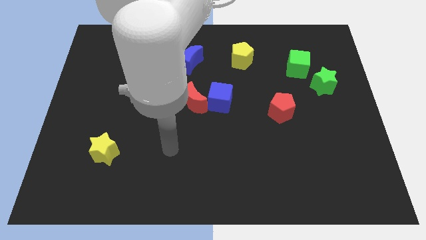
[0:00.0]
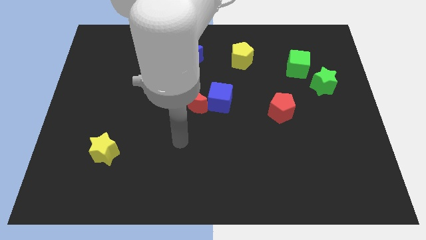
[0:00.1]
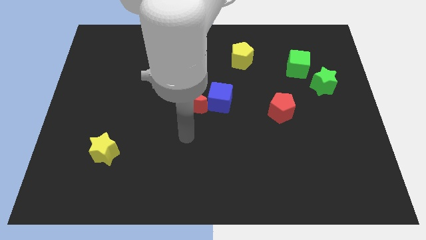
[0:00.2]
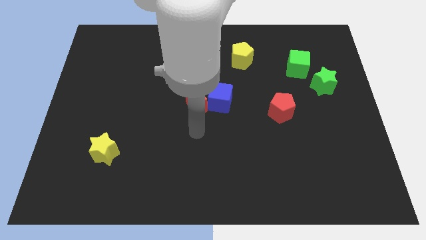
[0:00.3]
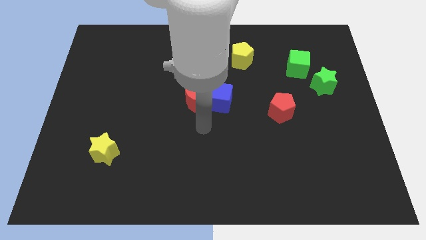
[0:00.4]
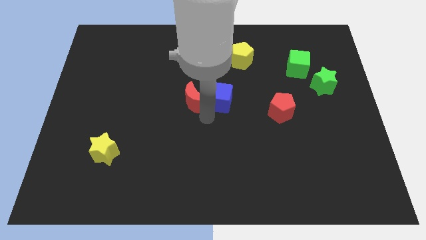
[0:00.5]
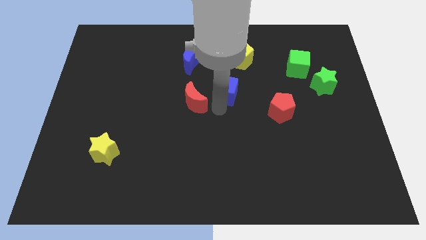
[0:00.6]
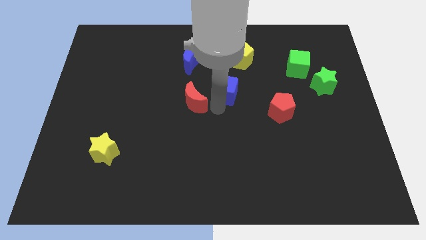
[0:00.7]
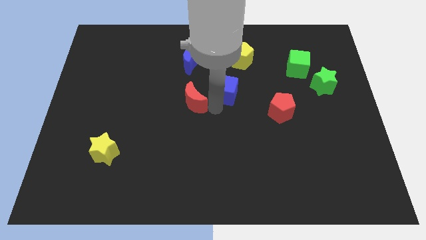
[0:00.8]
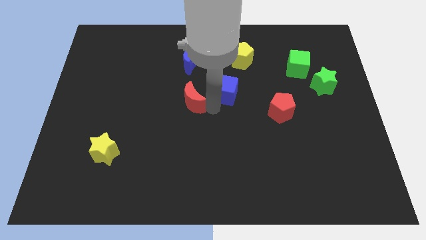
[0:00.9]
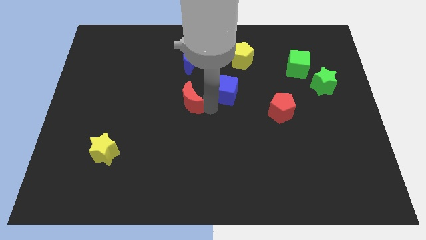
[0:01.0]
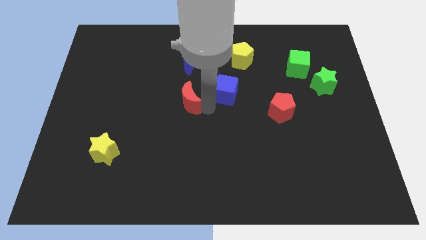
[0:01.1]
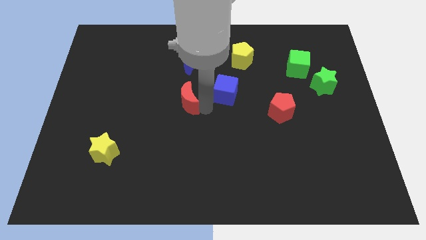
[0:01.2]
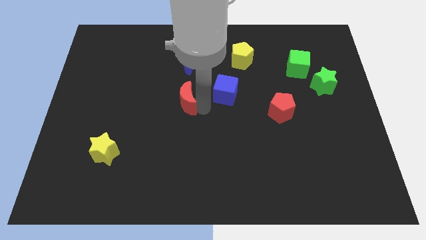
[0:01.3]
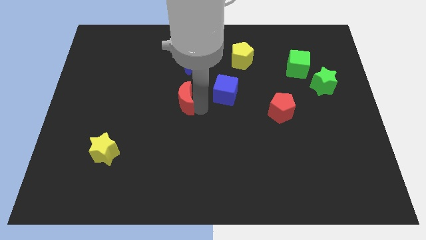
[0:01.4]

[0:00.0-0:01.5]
separate the red moon from the blue cube

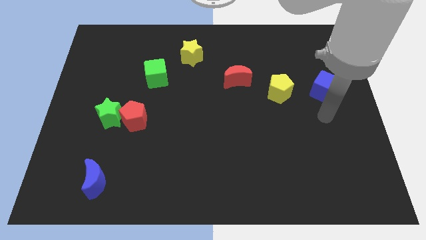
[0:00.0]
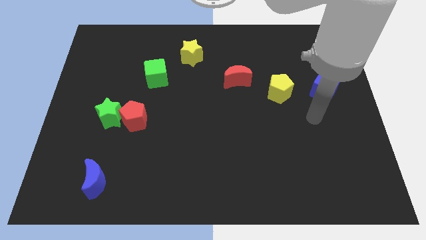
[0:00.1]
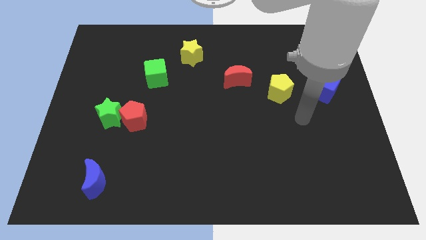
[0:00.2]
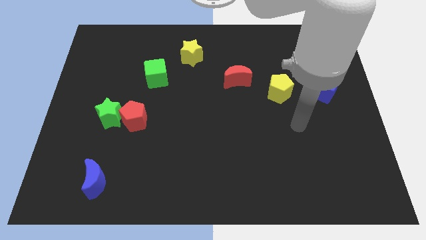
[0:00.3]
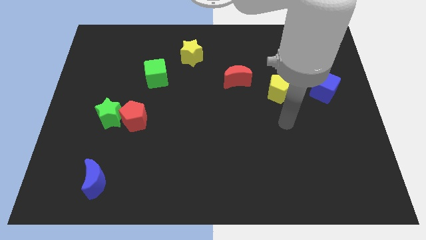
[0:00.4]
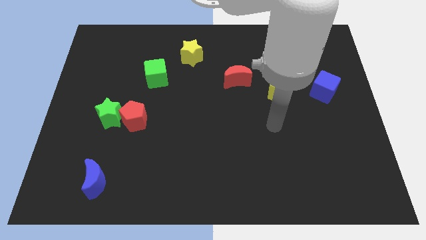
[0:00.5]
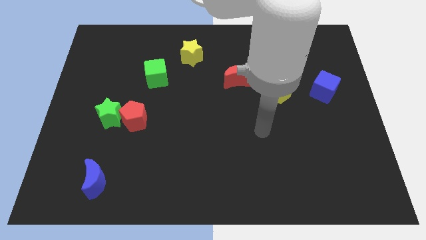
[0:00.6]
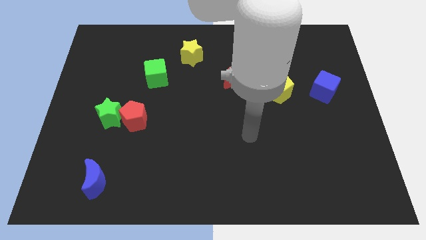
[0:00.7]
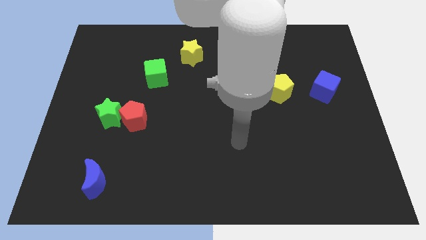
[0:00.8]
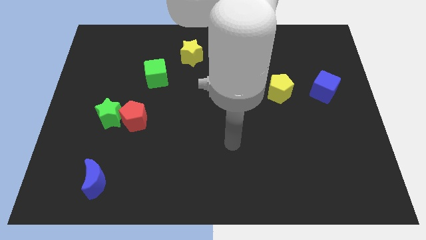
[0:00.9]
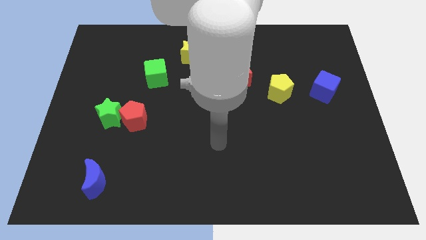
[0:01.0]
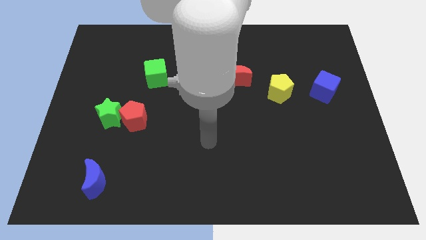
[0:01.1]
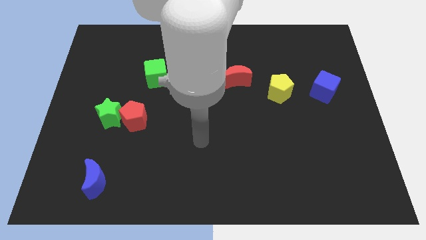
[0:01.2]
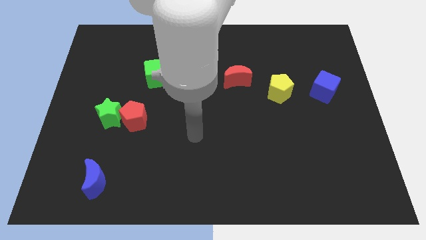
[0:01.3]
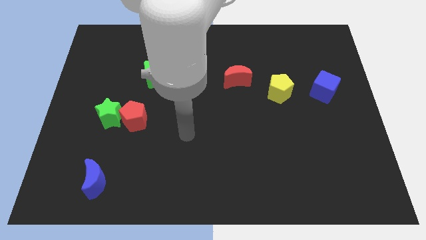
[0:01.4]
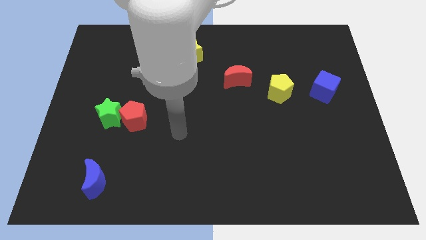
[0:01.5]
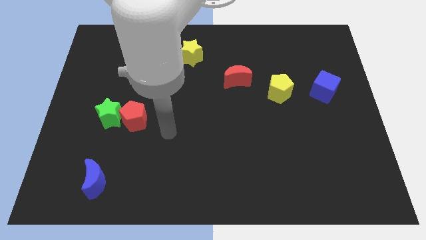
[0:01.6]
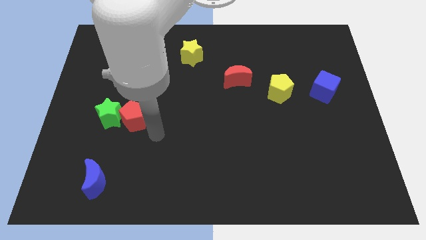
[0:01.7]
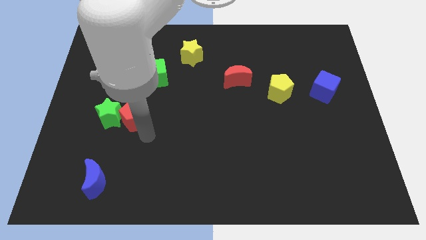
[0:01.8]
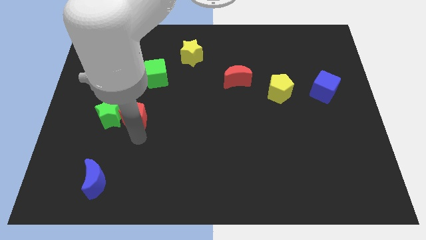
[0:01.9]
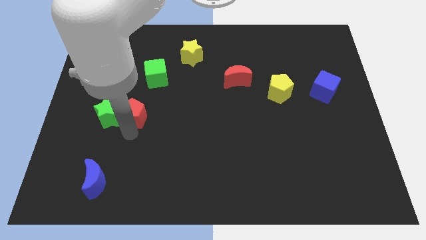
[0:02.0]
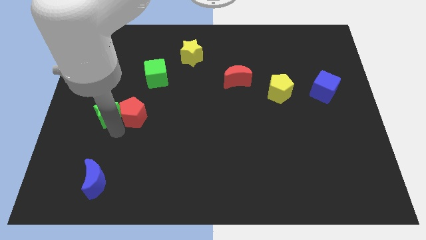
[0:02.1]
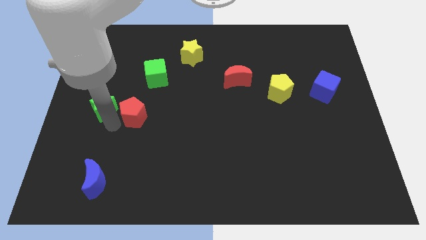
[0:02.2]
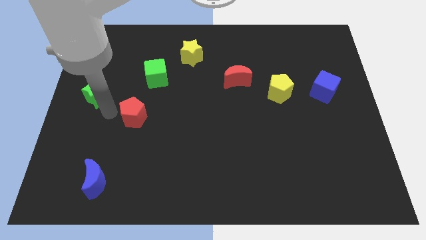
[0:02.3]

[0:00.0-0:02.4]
move the red pentagon away from the green star

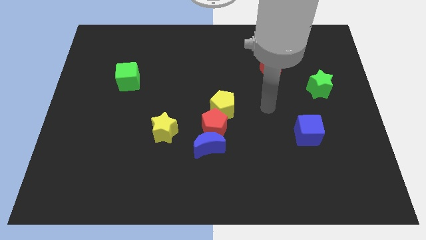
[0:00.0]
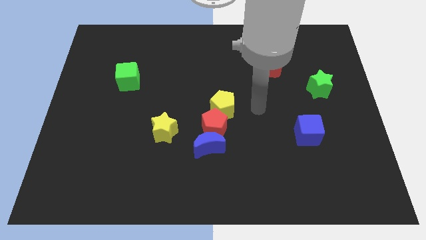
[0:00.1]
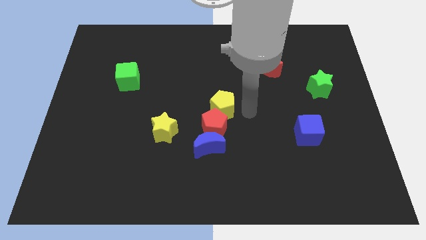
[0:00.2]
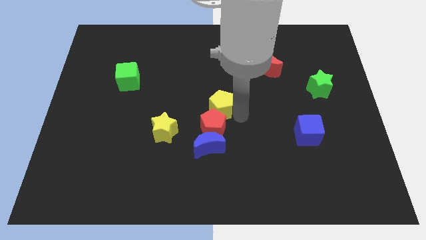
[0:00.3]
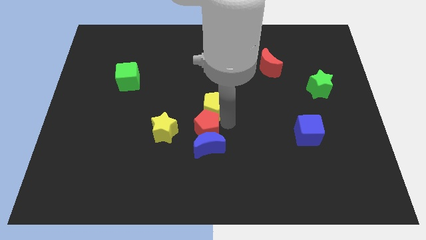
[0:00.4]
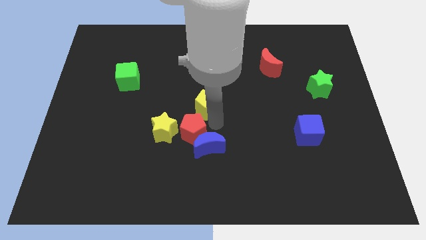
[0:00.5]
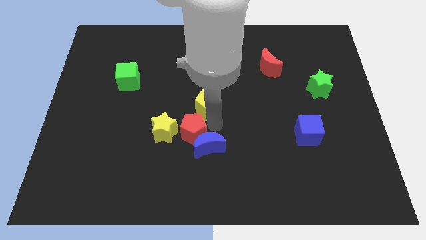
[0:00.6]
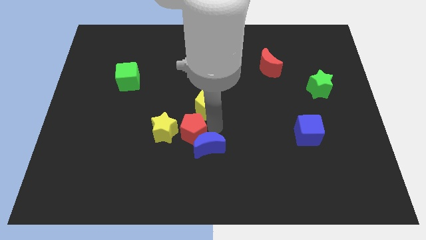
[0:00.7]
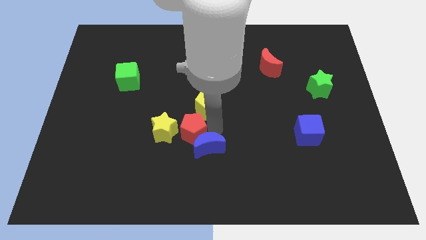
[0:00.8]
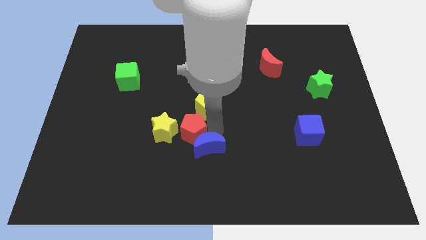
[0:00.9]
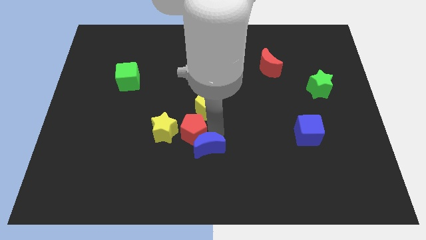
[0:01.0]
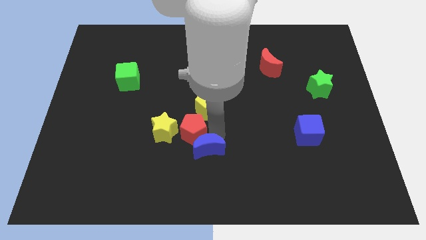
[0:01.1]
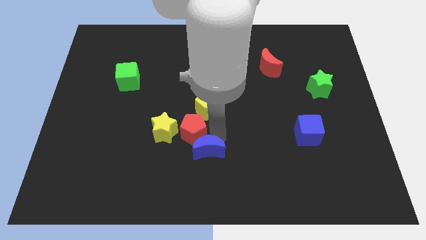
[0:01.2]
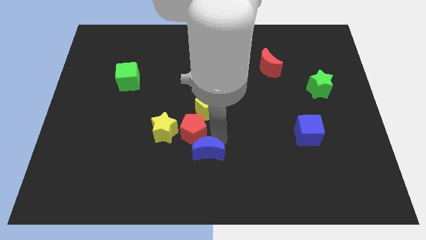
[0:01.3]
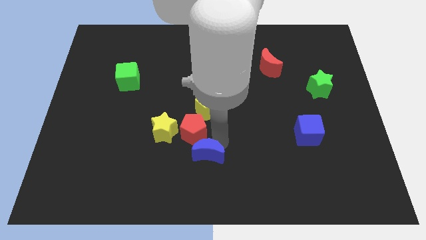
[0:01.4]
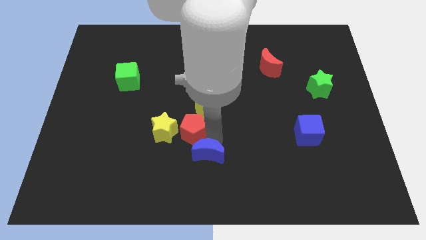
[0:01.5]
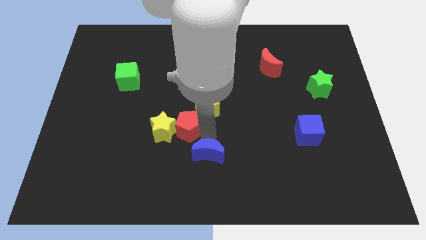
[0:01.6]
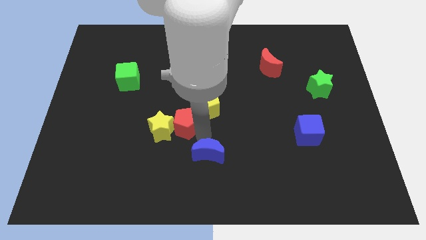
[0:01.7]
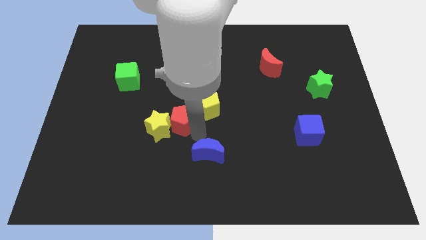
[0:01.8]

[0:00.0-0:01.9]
separate the blue moon from the red pentagon

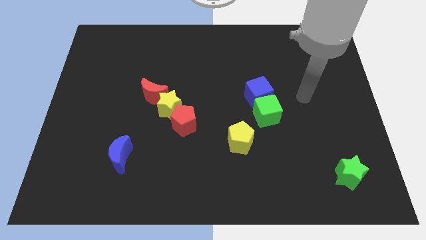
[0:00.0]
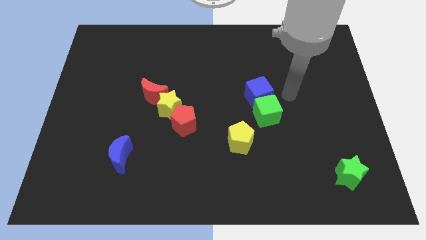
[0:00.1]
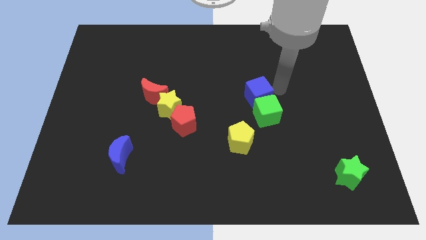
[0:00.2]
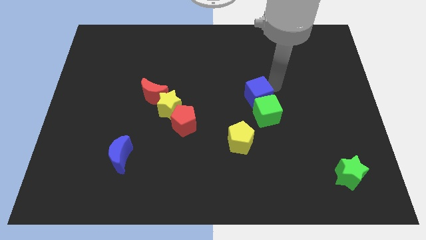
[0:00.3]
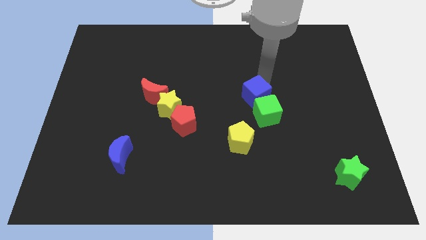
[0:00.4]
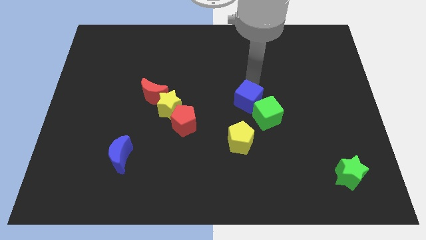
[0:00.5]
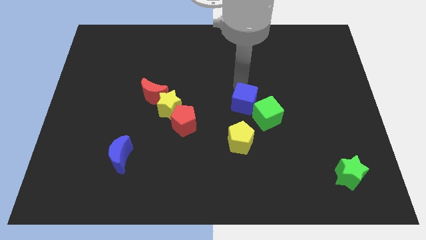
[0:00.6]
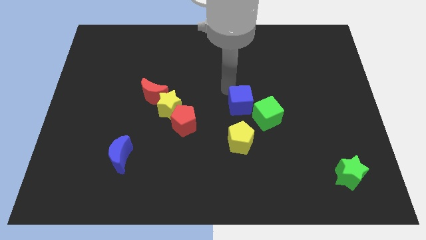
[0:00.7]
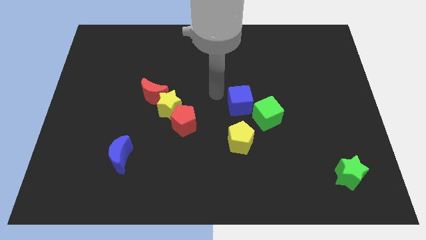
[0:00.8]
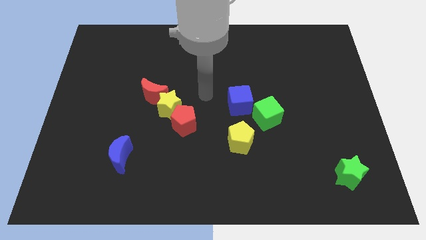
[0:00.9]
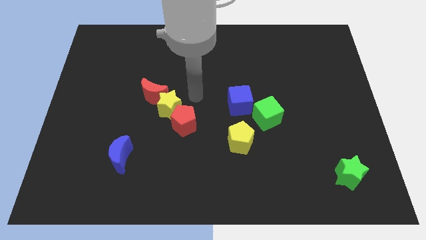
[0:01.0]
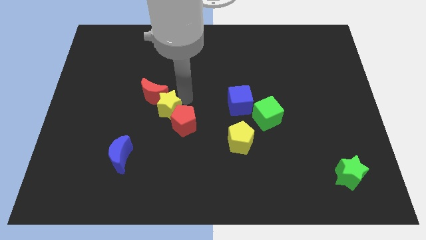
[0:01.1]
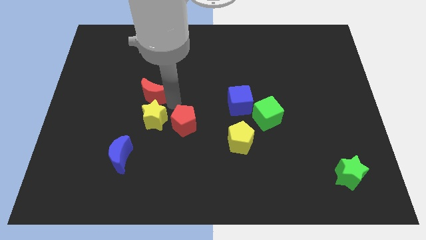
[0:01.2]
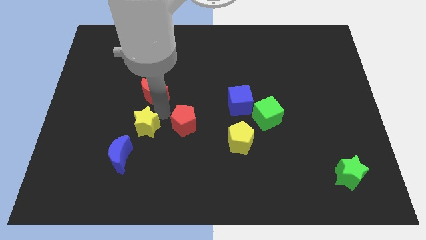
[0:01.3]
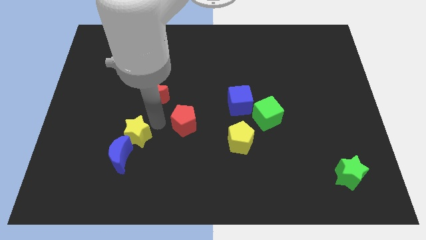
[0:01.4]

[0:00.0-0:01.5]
separate the red pentagon from the yellow star

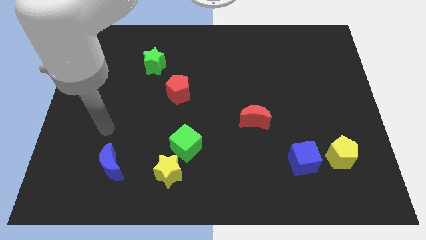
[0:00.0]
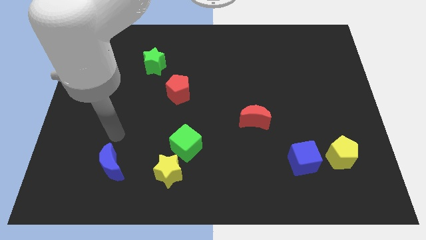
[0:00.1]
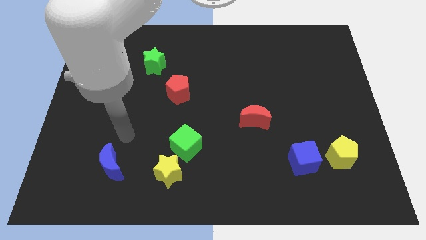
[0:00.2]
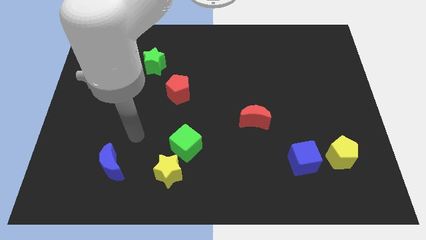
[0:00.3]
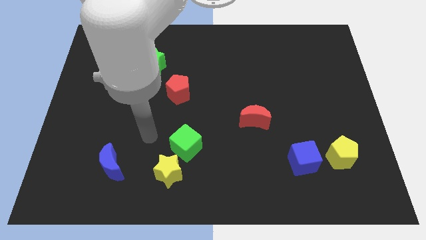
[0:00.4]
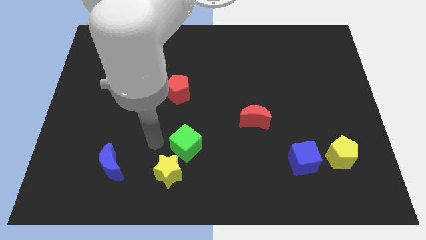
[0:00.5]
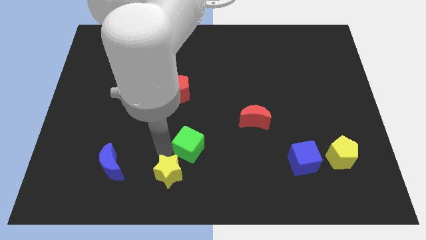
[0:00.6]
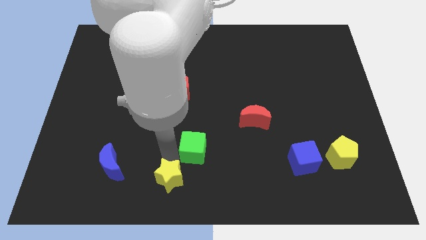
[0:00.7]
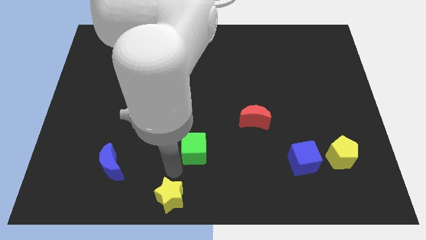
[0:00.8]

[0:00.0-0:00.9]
move the green cube away from the yellow star

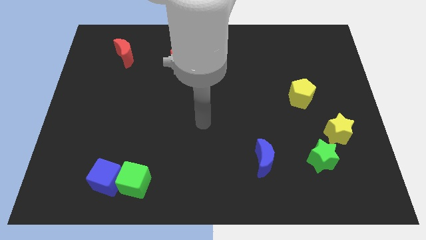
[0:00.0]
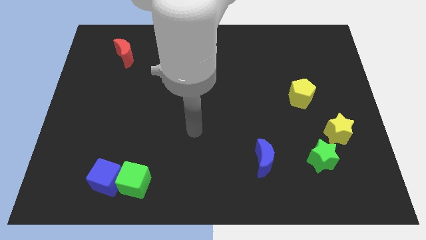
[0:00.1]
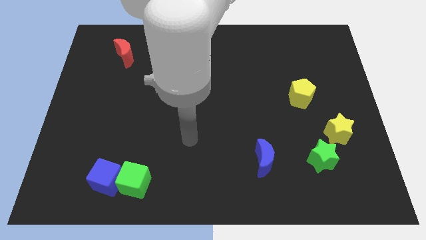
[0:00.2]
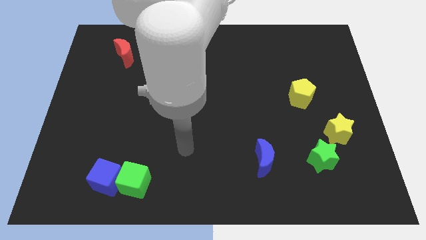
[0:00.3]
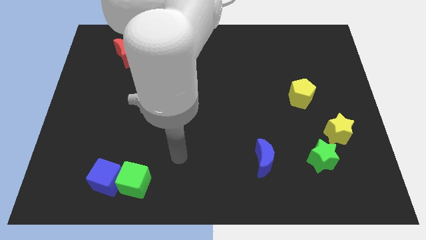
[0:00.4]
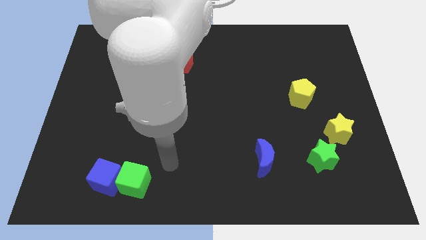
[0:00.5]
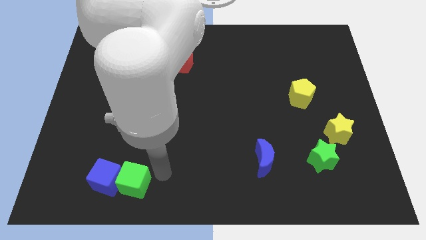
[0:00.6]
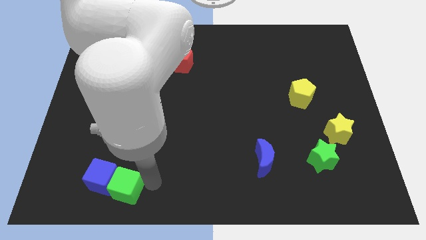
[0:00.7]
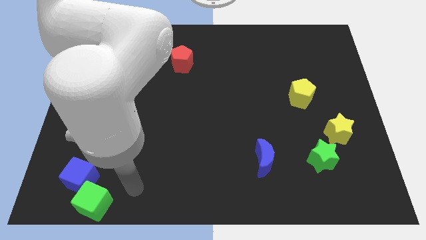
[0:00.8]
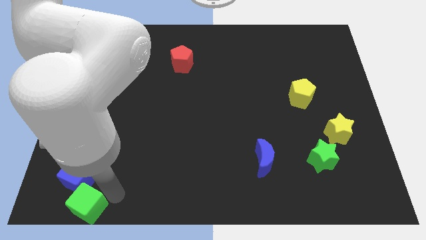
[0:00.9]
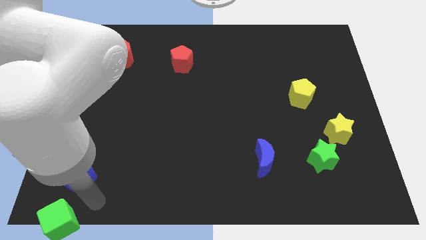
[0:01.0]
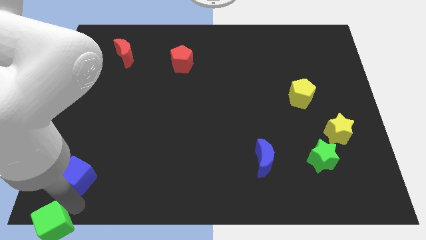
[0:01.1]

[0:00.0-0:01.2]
pull the blue cube apart from the green cube

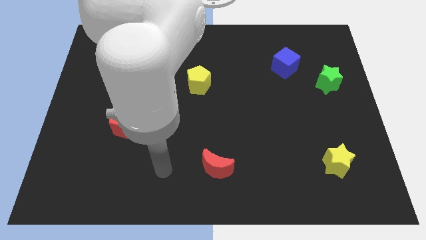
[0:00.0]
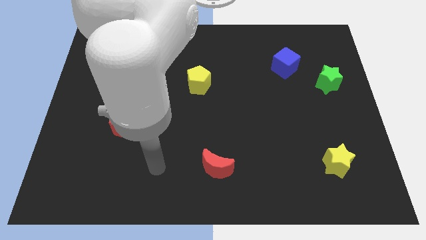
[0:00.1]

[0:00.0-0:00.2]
pull the red pentagon apart from the blue moon
